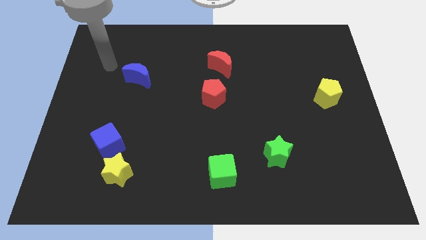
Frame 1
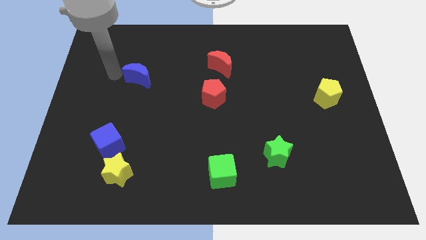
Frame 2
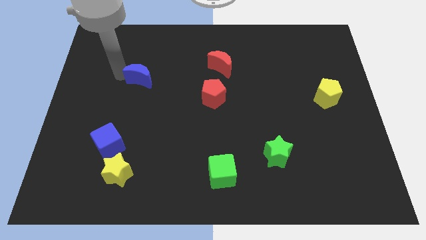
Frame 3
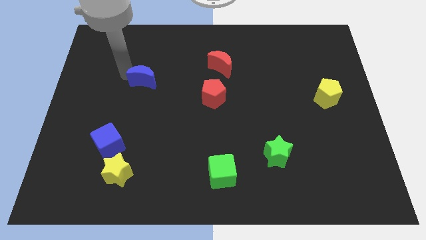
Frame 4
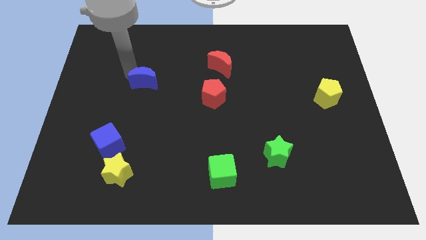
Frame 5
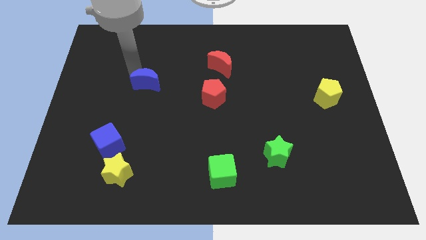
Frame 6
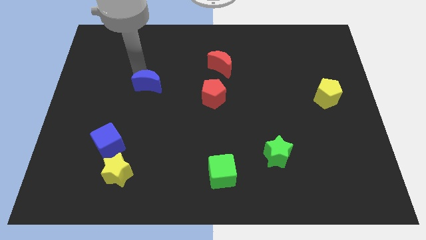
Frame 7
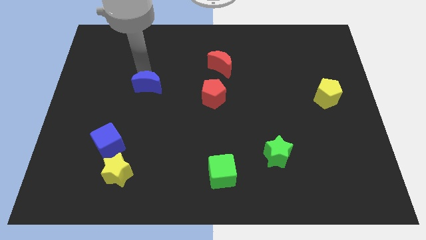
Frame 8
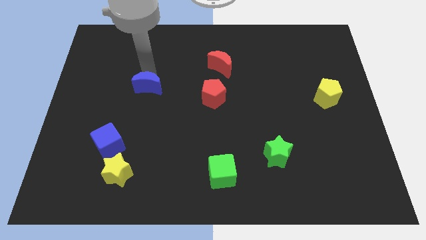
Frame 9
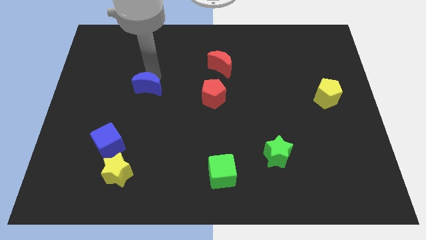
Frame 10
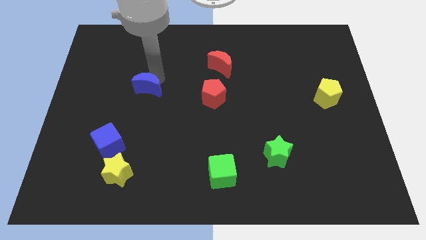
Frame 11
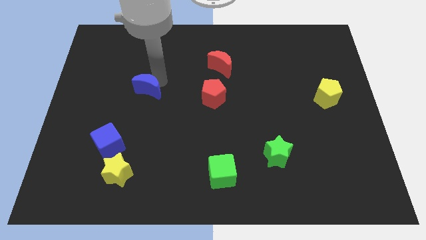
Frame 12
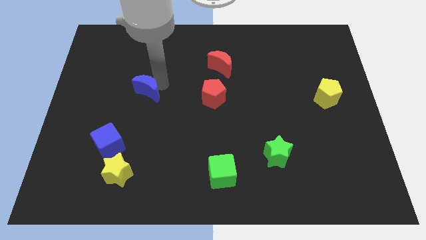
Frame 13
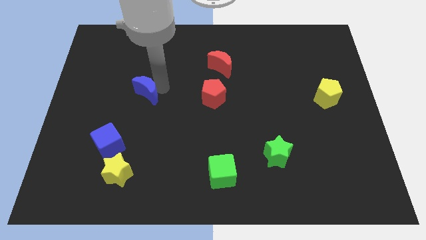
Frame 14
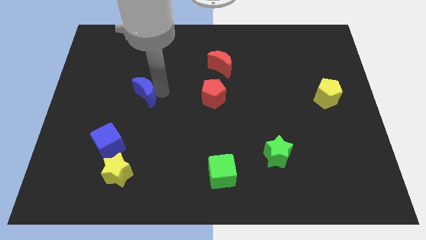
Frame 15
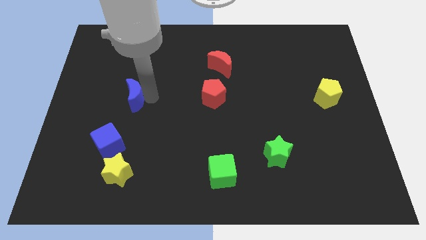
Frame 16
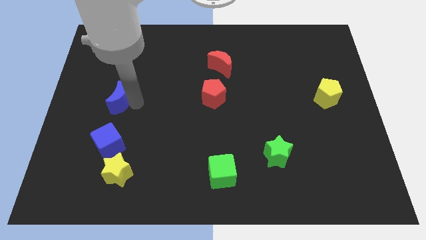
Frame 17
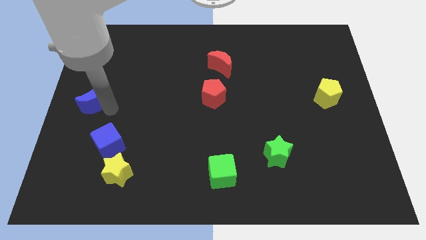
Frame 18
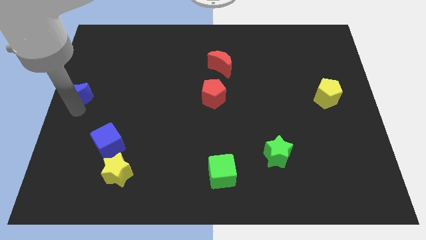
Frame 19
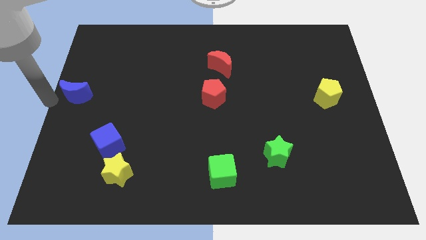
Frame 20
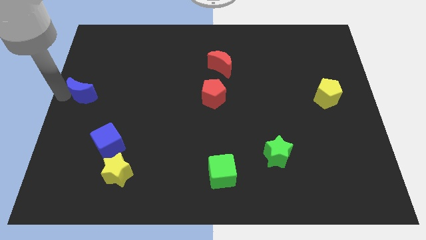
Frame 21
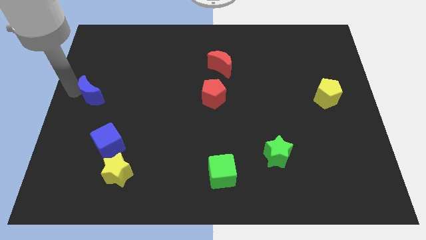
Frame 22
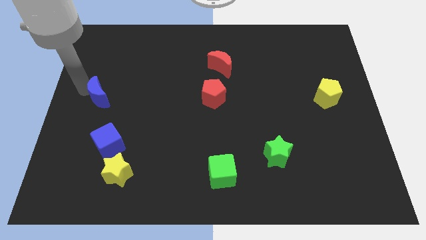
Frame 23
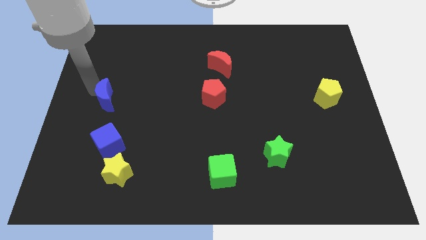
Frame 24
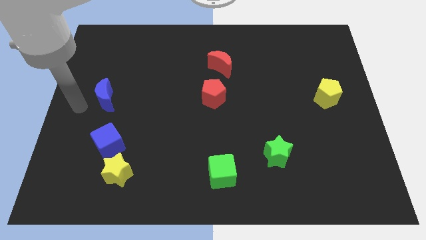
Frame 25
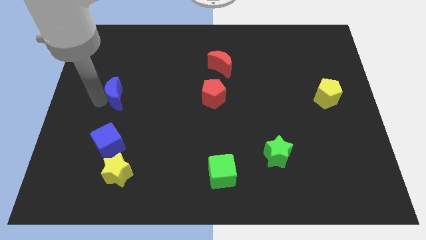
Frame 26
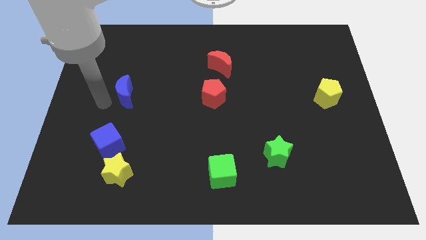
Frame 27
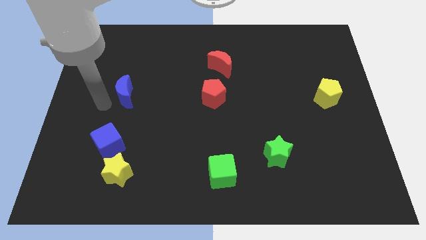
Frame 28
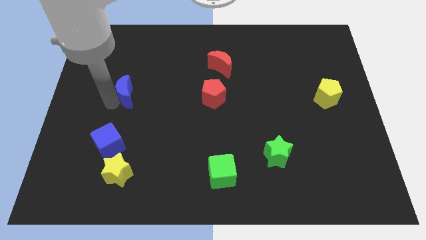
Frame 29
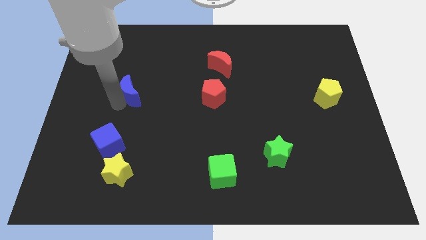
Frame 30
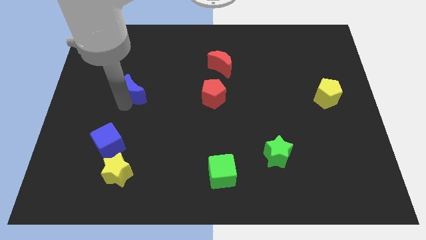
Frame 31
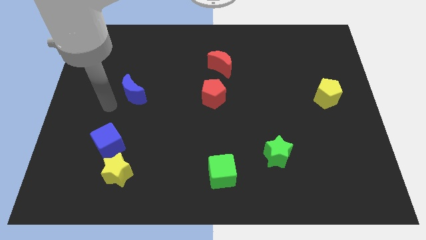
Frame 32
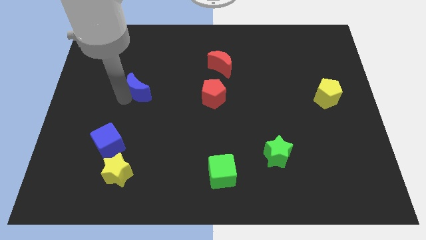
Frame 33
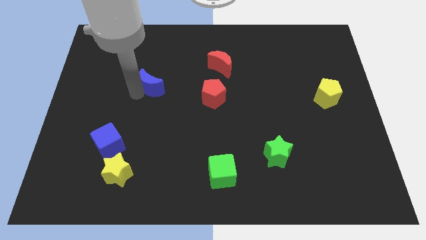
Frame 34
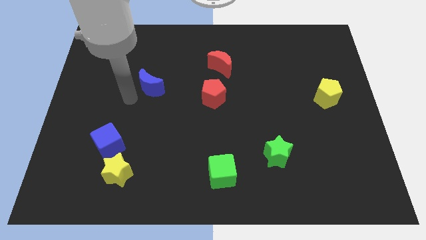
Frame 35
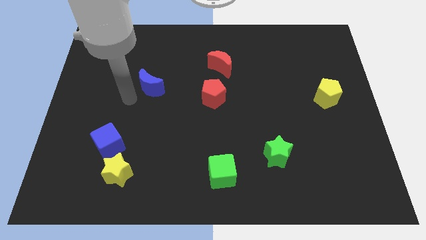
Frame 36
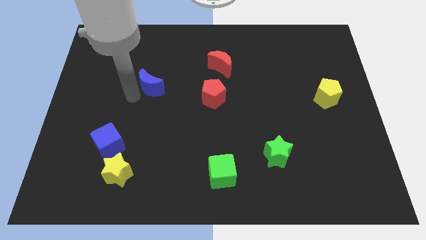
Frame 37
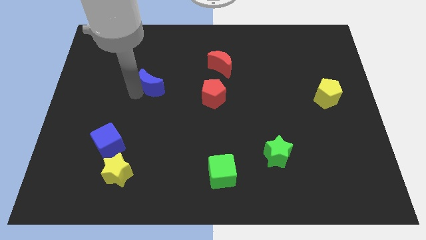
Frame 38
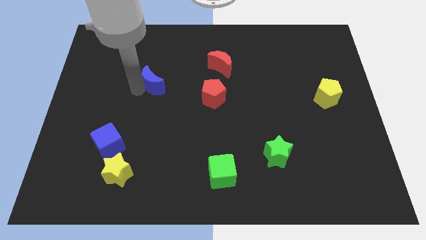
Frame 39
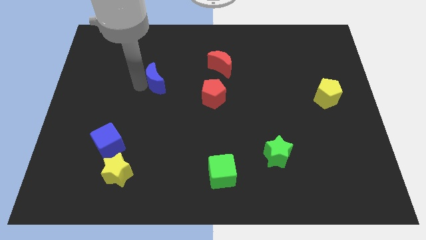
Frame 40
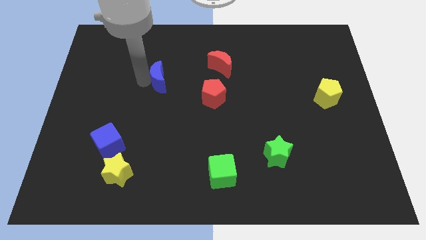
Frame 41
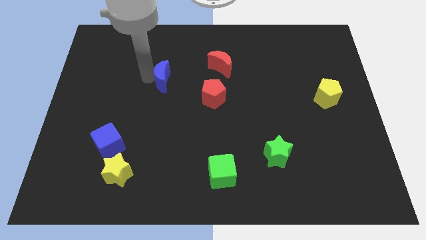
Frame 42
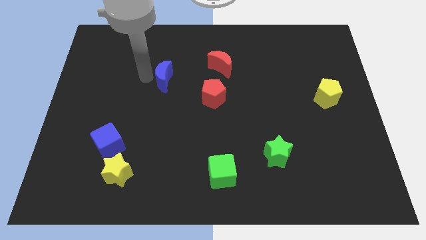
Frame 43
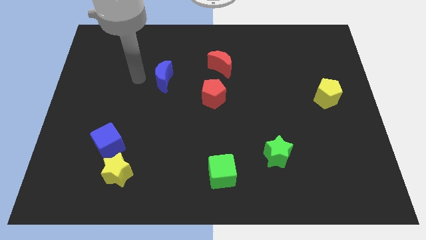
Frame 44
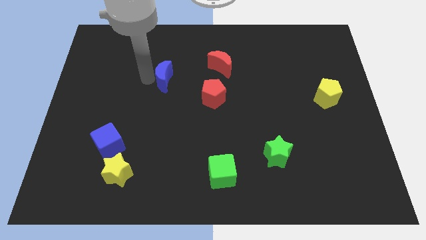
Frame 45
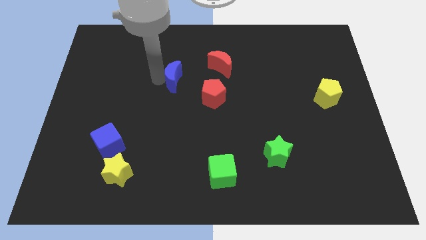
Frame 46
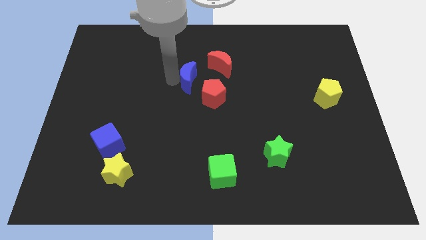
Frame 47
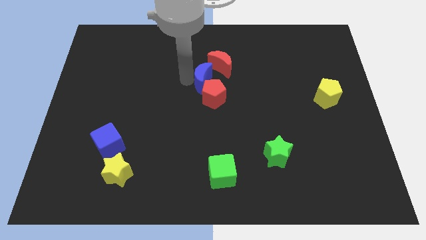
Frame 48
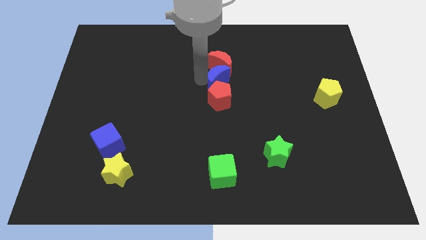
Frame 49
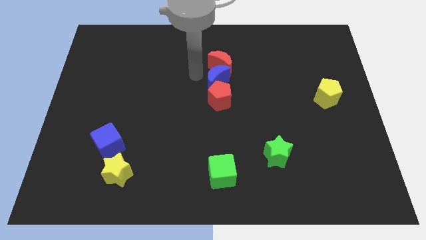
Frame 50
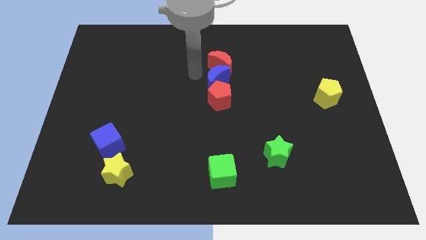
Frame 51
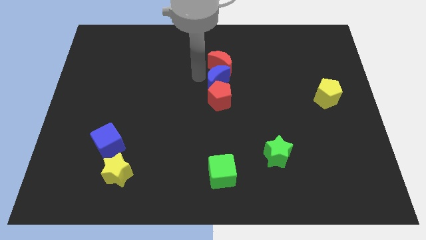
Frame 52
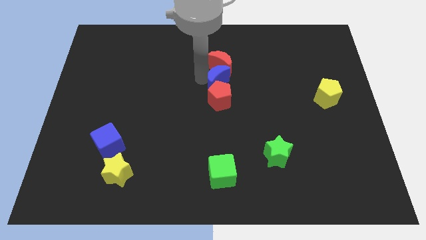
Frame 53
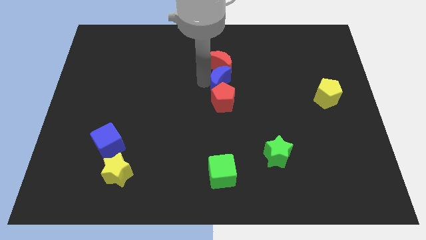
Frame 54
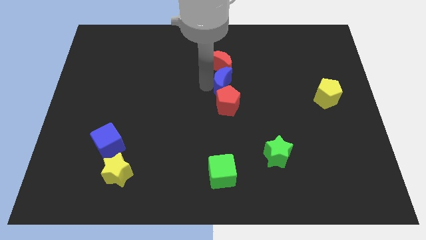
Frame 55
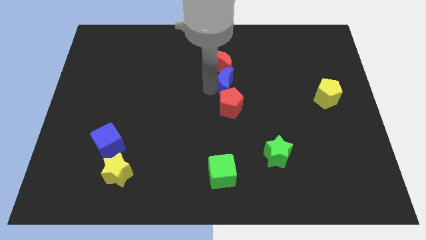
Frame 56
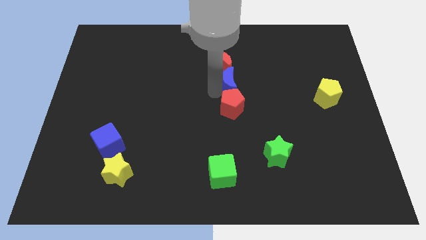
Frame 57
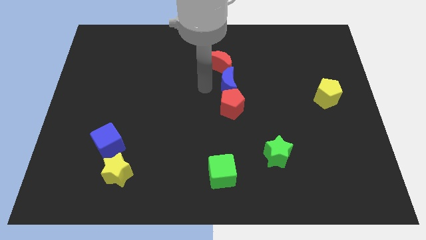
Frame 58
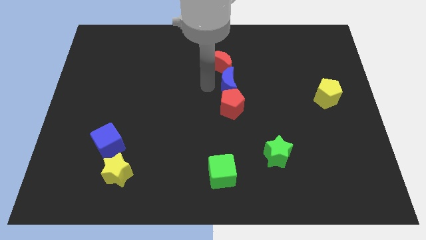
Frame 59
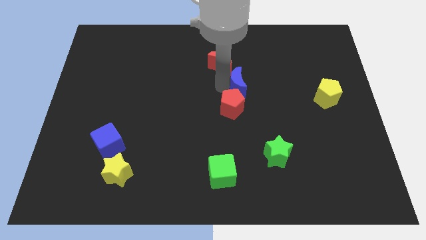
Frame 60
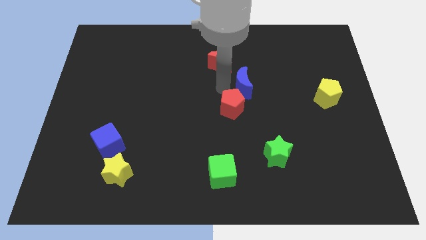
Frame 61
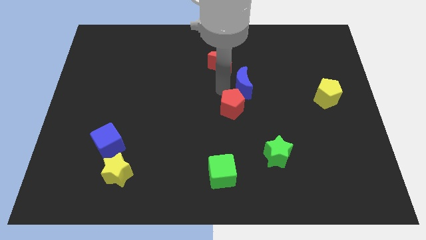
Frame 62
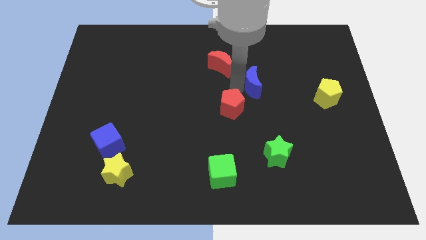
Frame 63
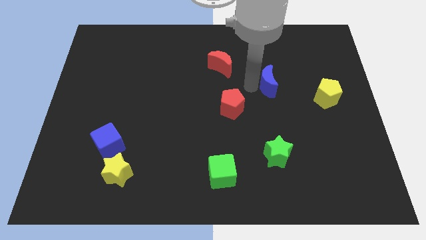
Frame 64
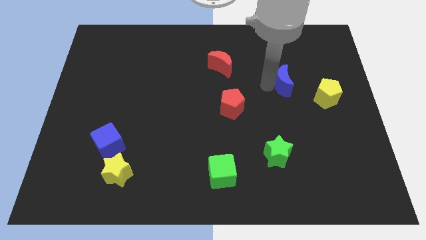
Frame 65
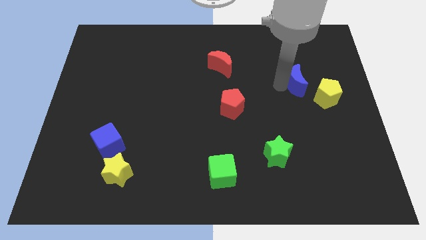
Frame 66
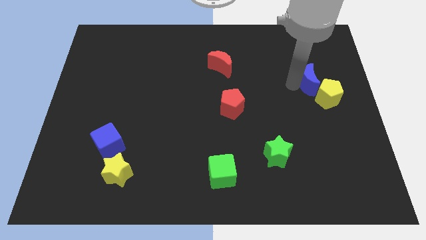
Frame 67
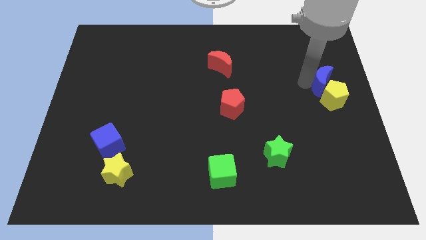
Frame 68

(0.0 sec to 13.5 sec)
put the blue moon to the center right

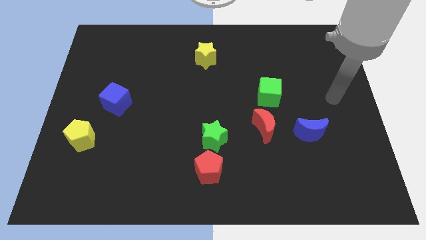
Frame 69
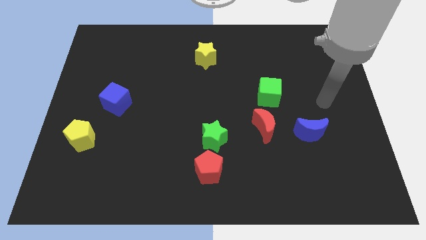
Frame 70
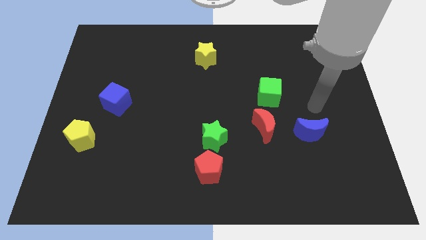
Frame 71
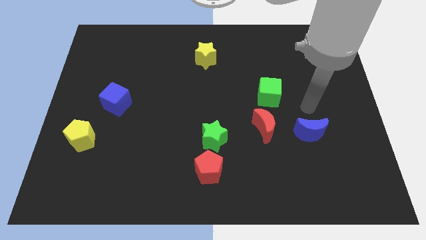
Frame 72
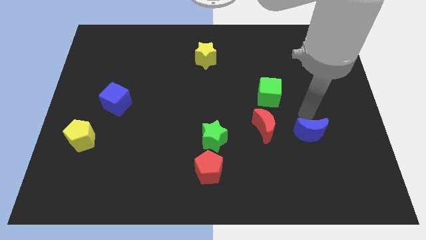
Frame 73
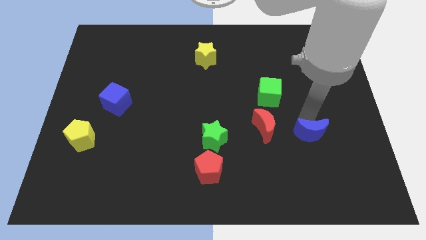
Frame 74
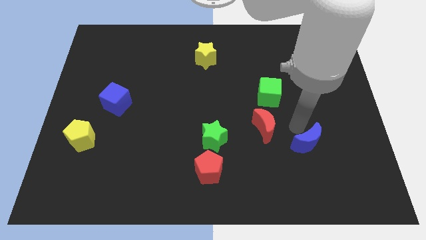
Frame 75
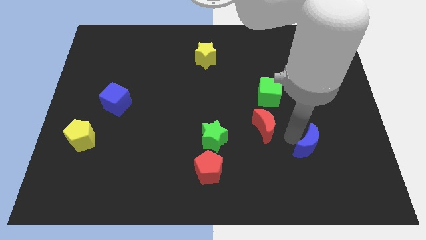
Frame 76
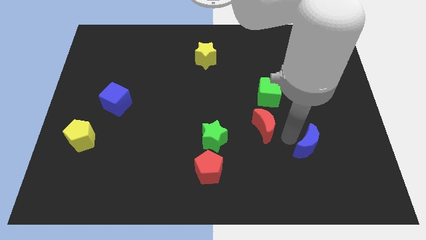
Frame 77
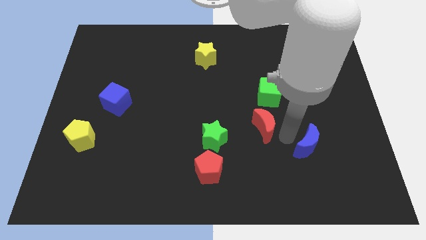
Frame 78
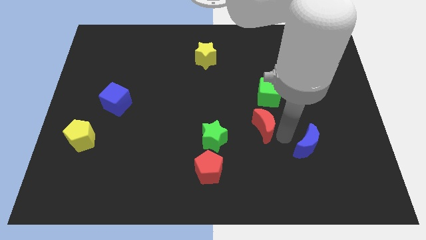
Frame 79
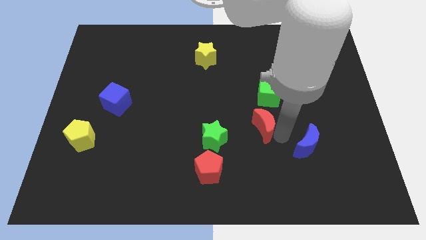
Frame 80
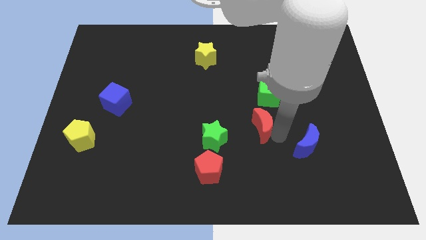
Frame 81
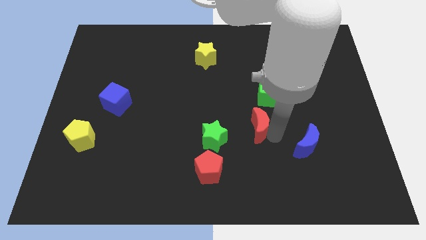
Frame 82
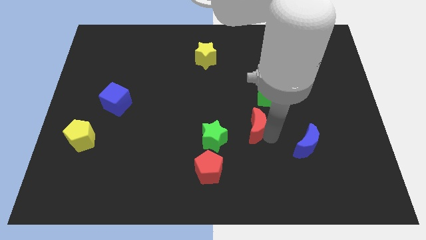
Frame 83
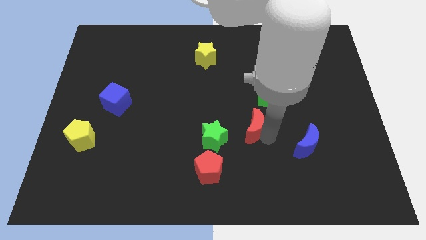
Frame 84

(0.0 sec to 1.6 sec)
slide the red moon to the center of the board
